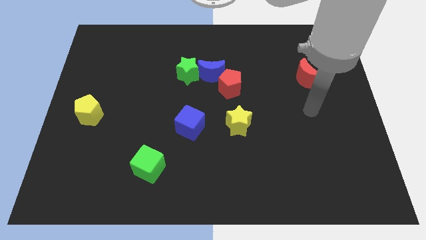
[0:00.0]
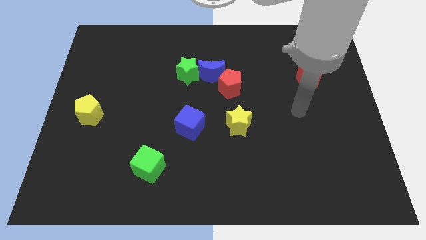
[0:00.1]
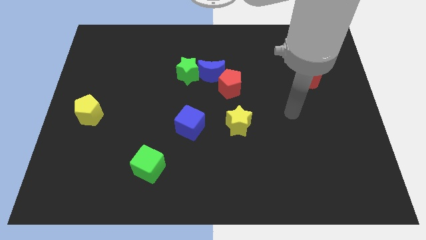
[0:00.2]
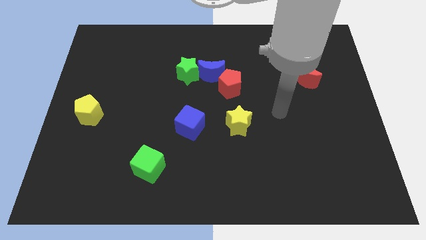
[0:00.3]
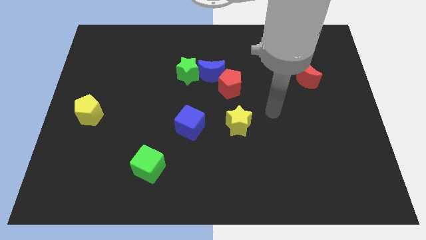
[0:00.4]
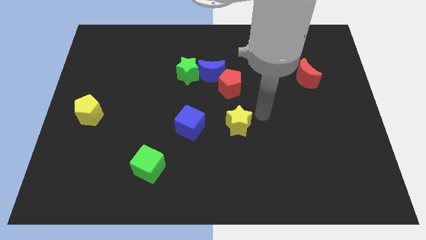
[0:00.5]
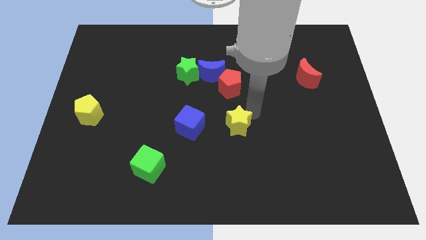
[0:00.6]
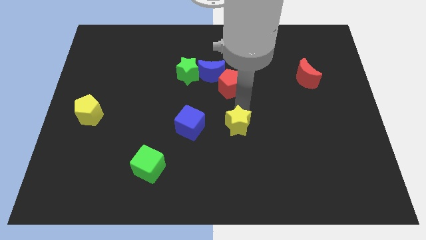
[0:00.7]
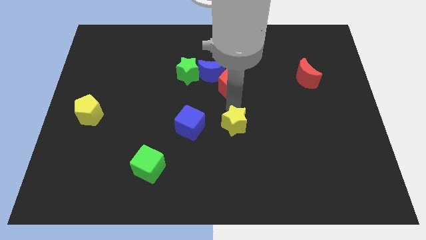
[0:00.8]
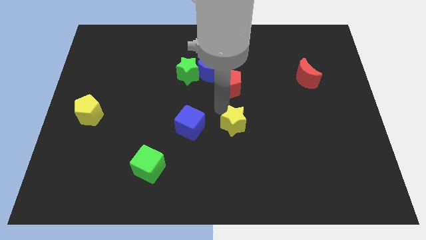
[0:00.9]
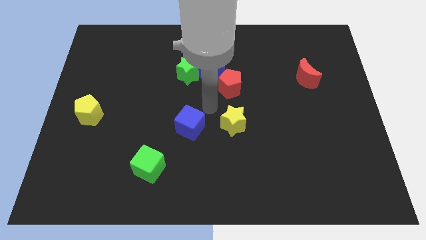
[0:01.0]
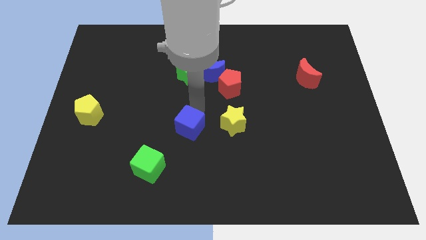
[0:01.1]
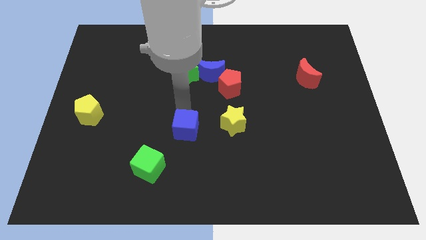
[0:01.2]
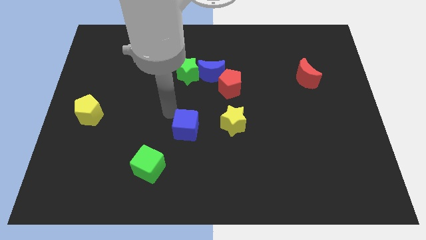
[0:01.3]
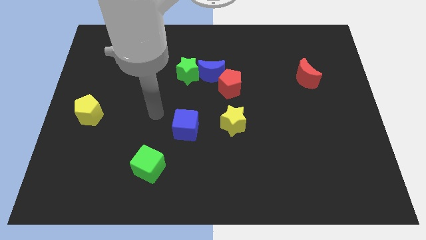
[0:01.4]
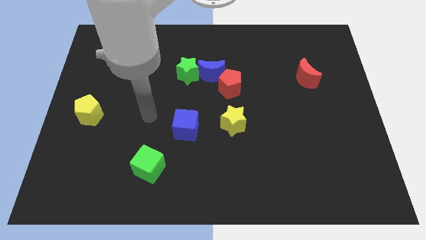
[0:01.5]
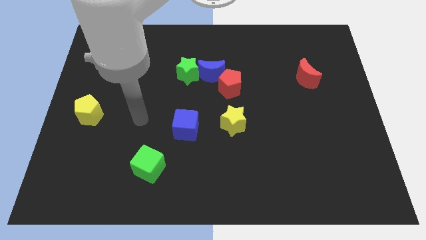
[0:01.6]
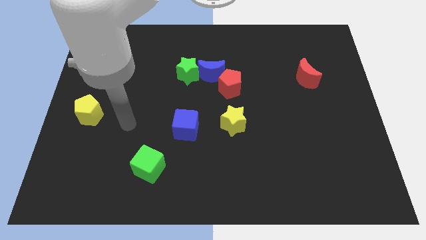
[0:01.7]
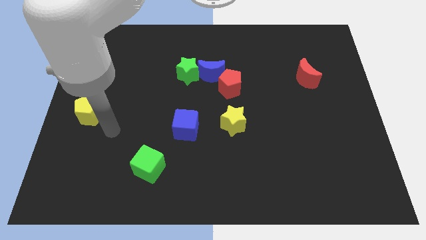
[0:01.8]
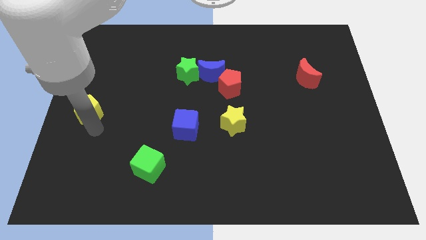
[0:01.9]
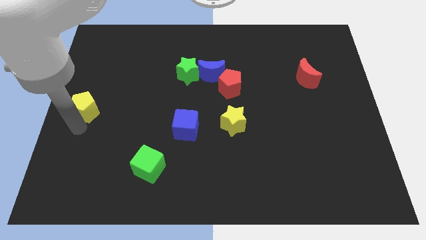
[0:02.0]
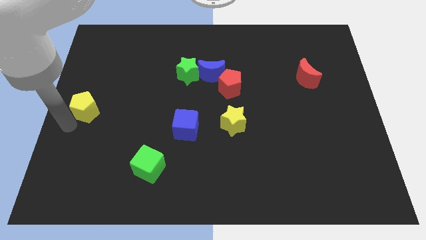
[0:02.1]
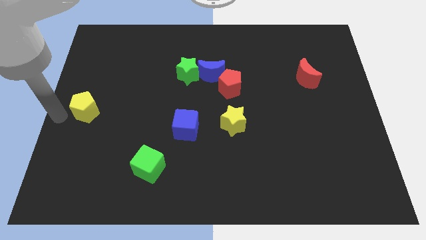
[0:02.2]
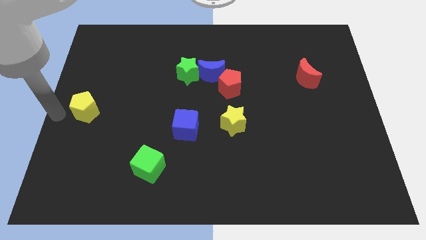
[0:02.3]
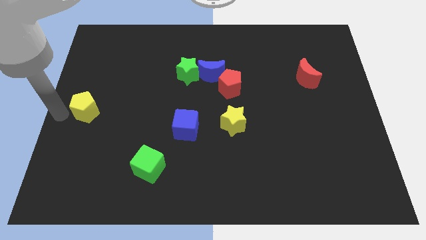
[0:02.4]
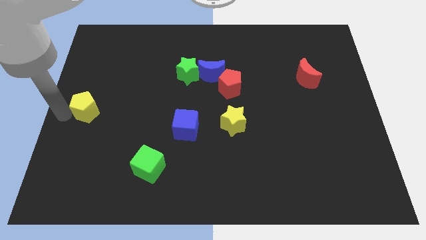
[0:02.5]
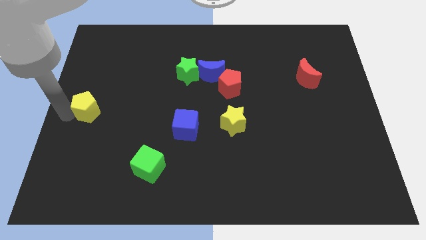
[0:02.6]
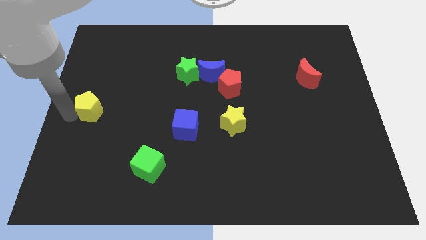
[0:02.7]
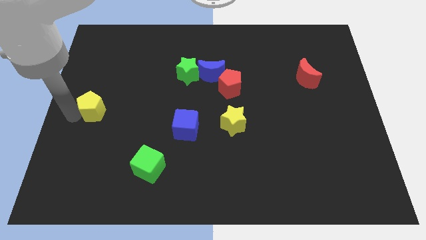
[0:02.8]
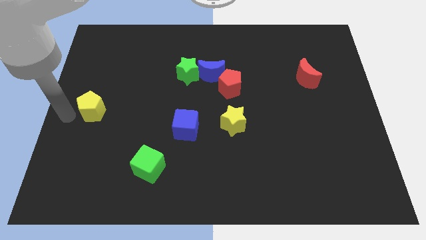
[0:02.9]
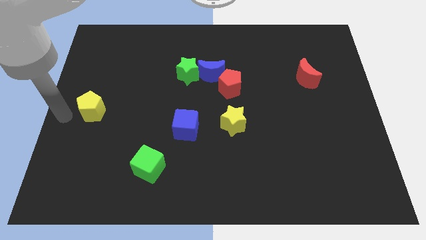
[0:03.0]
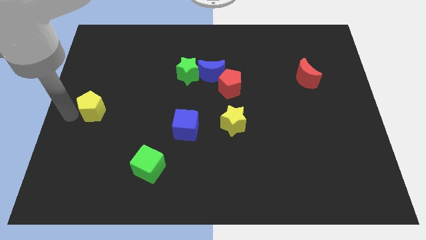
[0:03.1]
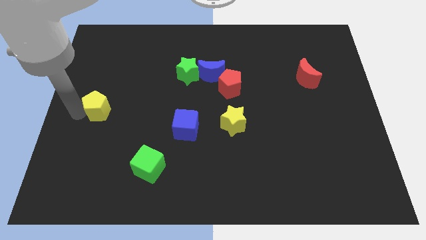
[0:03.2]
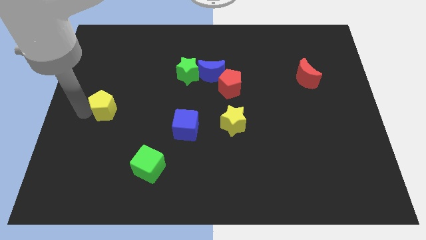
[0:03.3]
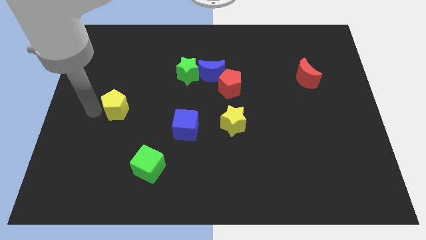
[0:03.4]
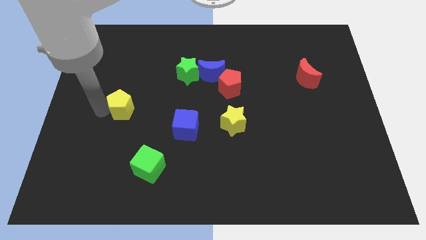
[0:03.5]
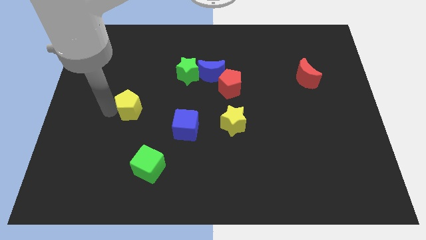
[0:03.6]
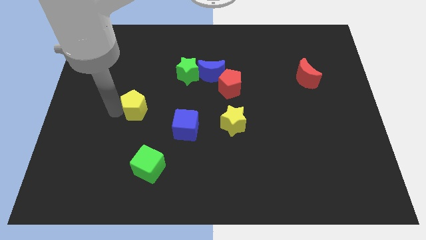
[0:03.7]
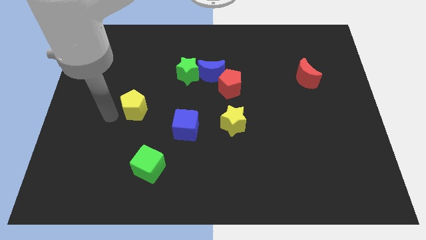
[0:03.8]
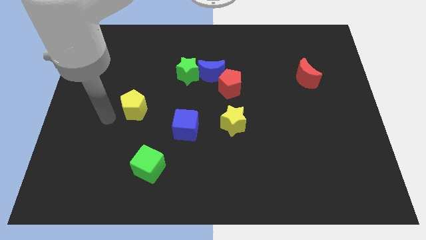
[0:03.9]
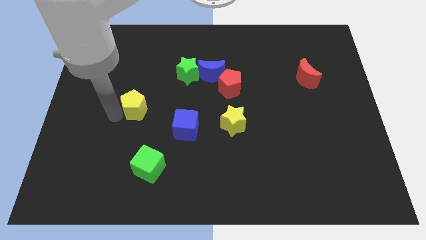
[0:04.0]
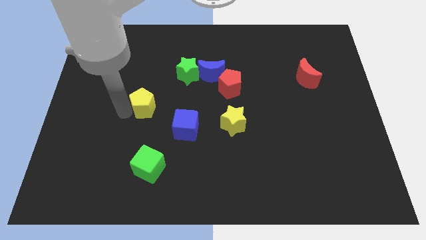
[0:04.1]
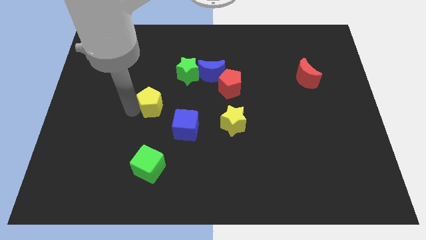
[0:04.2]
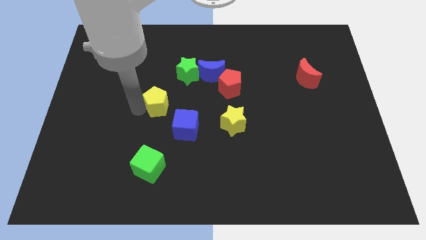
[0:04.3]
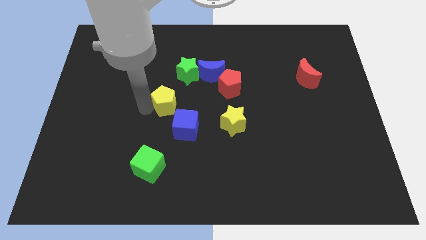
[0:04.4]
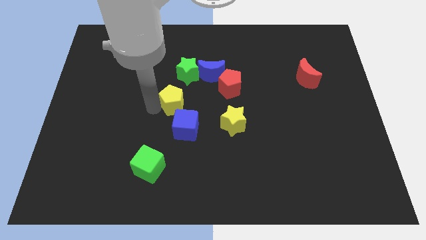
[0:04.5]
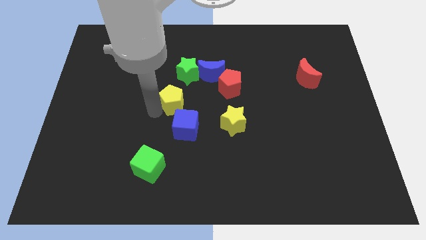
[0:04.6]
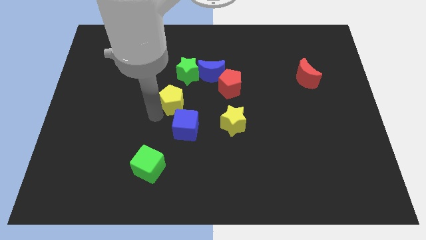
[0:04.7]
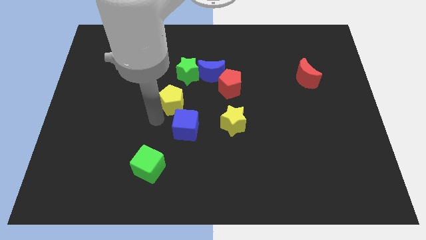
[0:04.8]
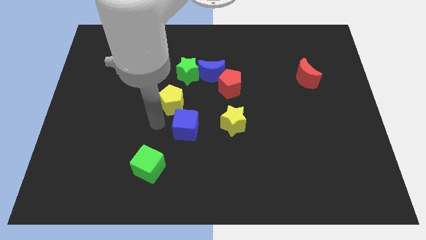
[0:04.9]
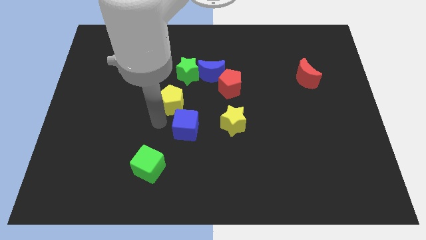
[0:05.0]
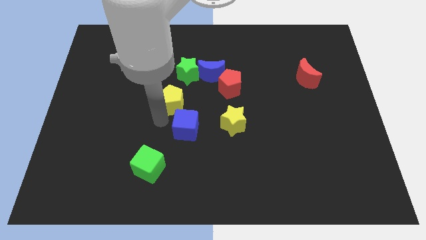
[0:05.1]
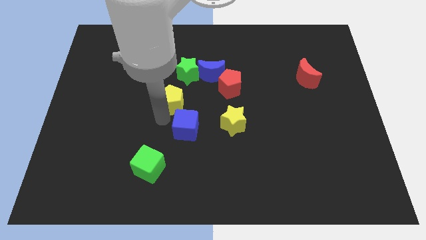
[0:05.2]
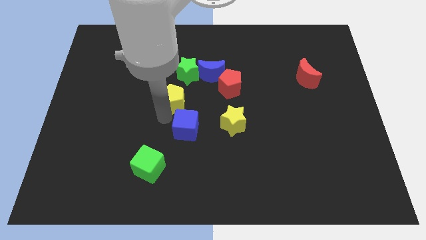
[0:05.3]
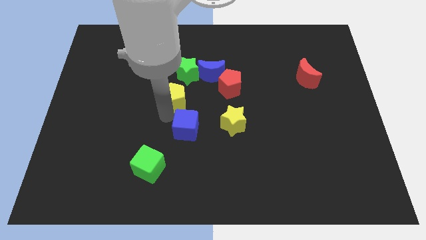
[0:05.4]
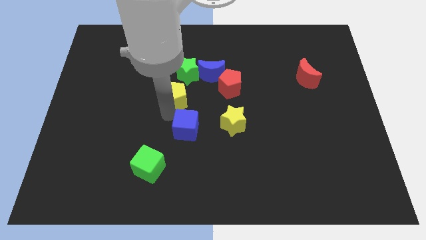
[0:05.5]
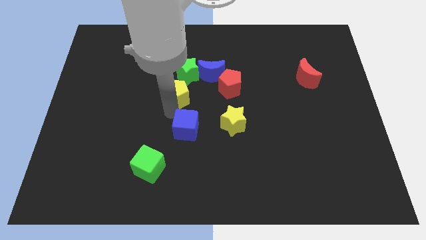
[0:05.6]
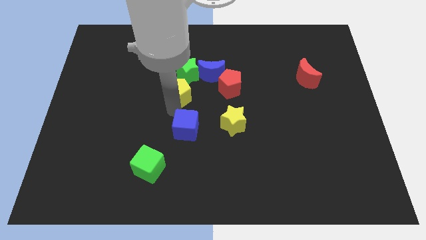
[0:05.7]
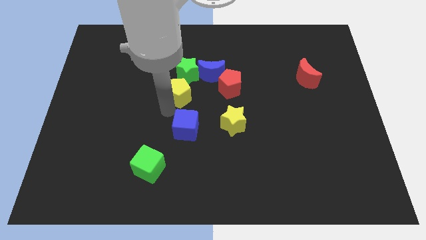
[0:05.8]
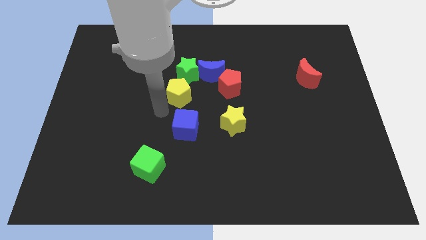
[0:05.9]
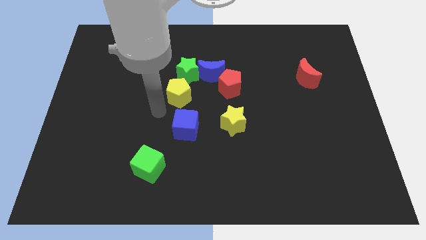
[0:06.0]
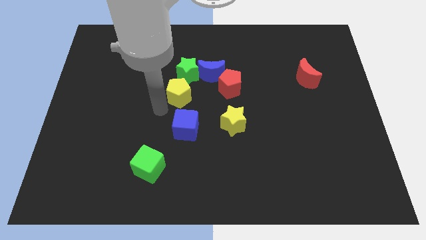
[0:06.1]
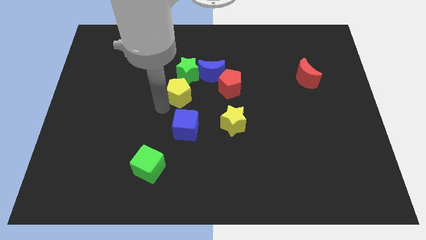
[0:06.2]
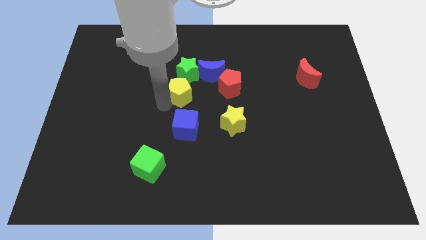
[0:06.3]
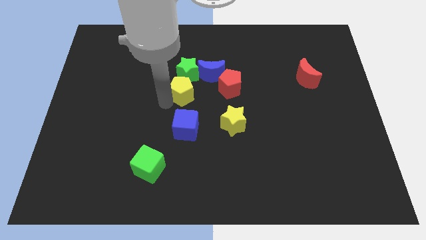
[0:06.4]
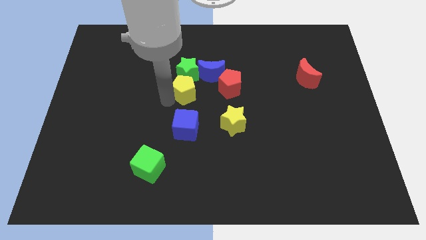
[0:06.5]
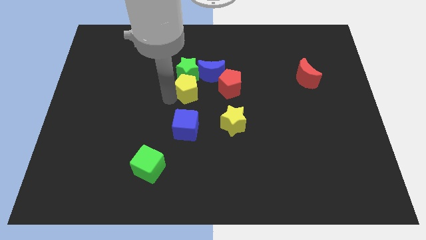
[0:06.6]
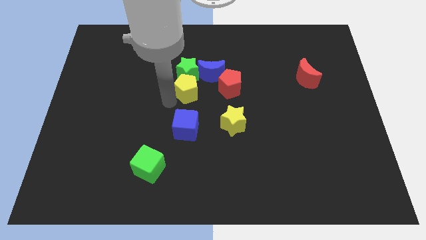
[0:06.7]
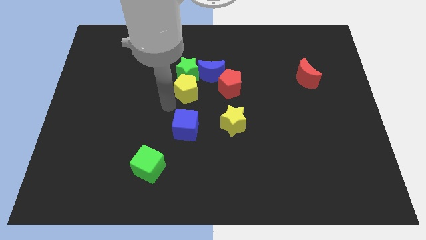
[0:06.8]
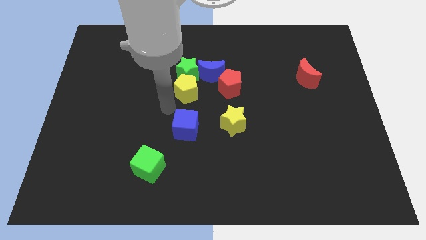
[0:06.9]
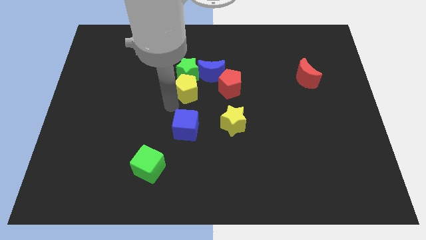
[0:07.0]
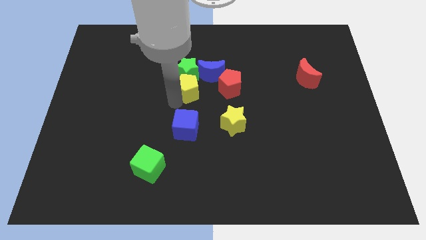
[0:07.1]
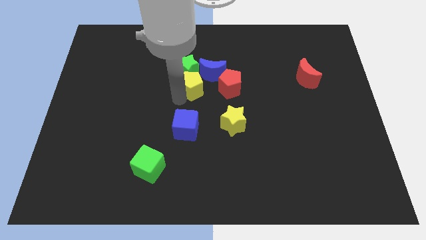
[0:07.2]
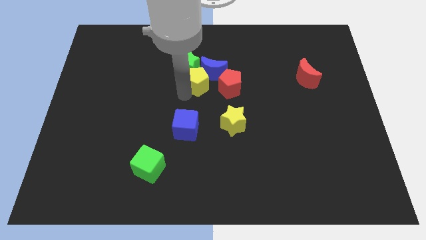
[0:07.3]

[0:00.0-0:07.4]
move the yellow pentagon to the blue moon
